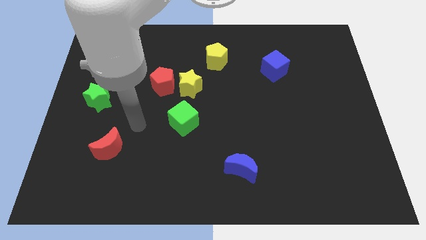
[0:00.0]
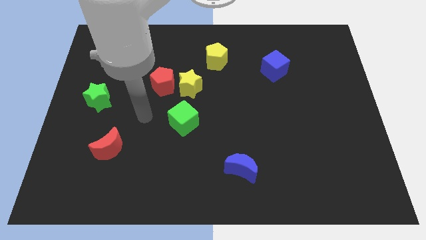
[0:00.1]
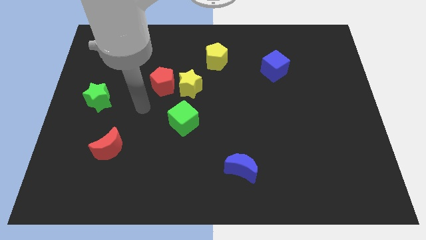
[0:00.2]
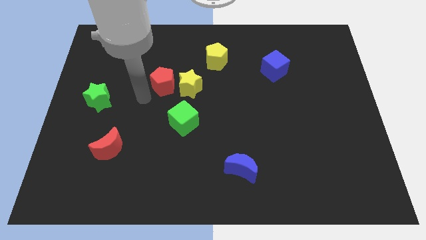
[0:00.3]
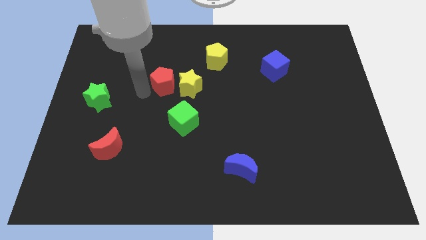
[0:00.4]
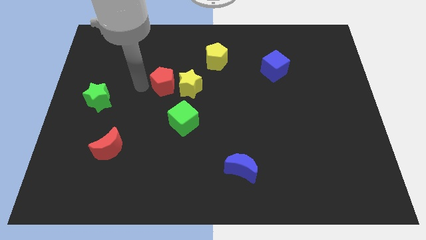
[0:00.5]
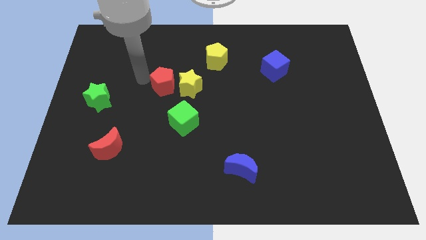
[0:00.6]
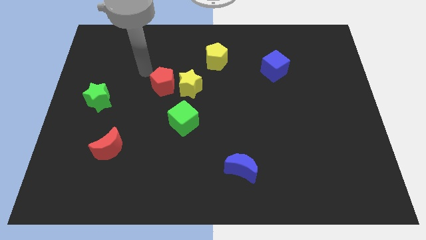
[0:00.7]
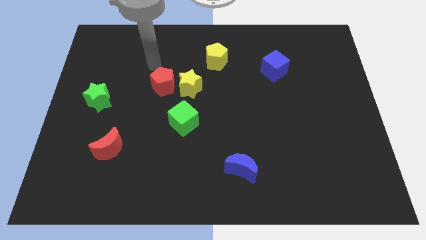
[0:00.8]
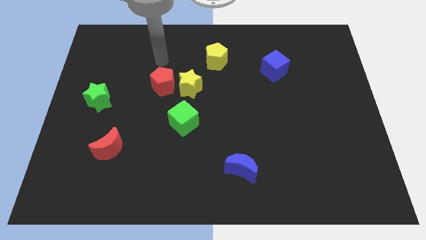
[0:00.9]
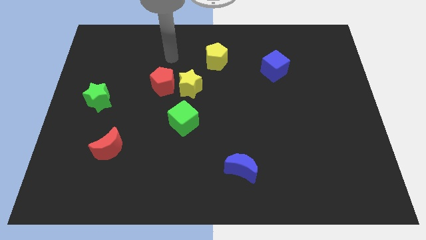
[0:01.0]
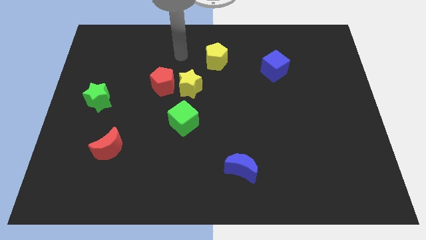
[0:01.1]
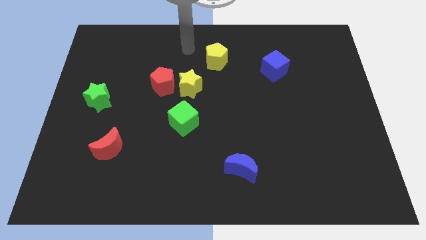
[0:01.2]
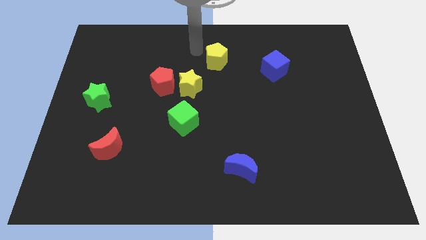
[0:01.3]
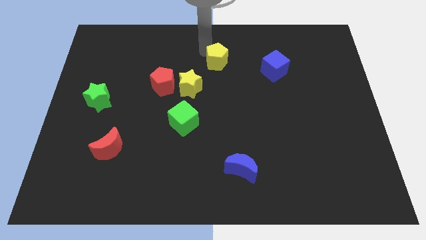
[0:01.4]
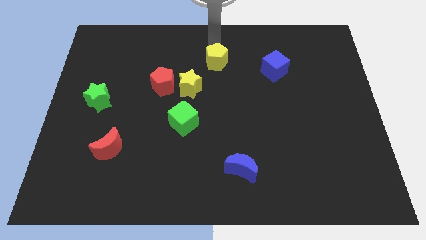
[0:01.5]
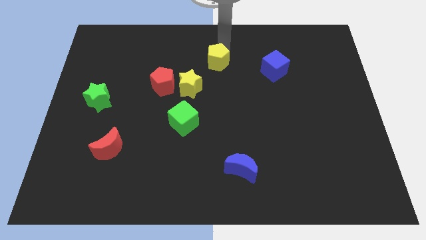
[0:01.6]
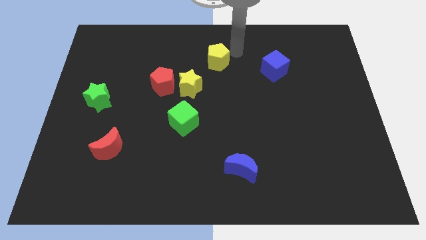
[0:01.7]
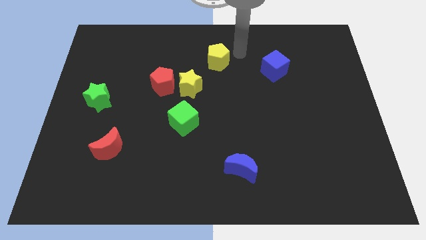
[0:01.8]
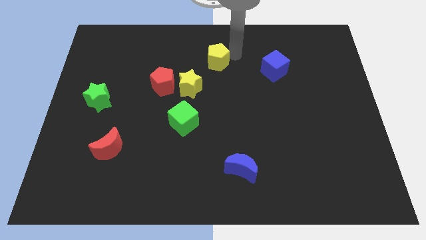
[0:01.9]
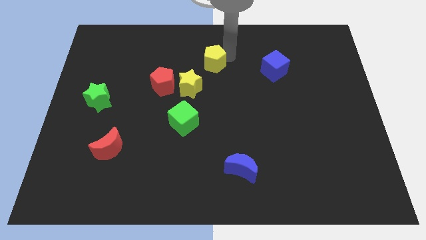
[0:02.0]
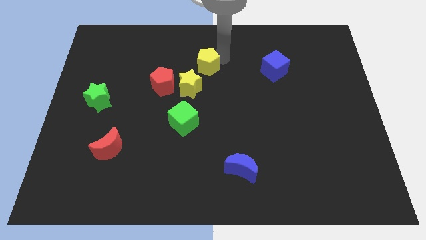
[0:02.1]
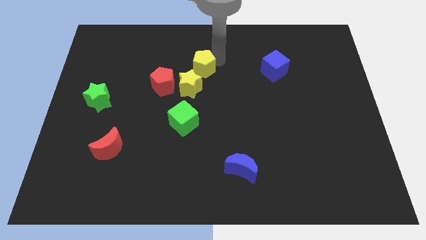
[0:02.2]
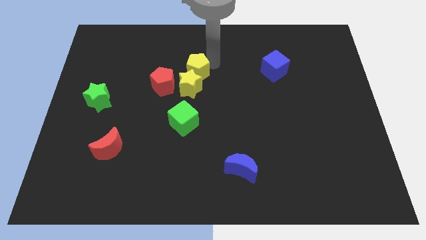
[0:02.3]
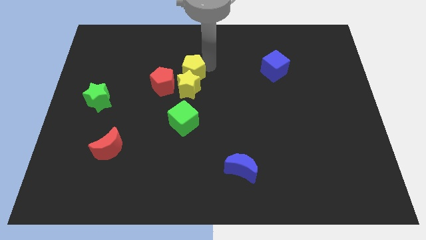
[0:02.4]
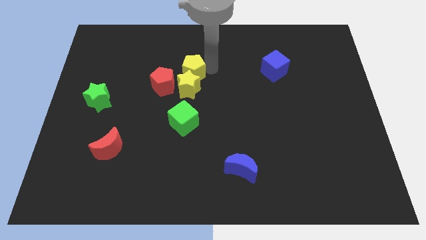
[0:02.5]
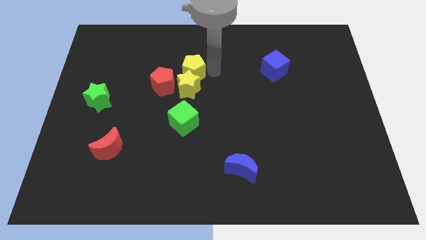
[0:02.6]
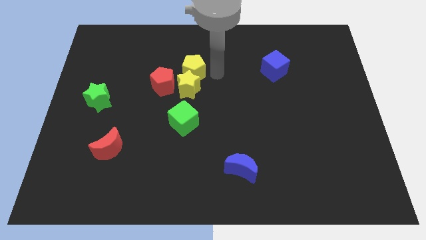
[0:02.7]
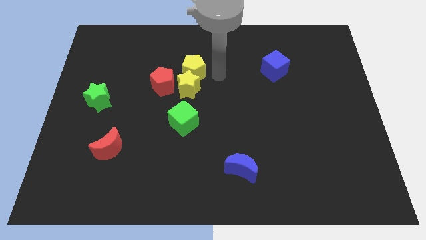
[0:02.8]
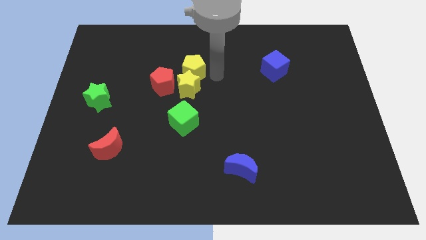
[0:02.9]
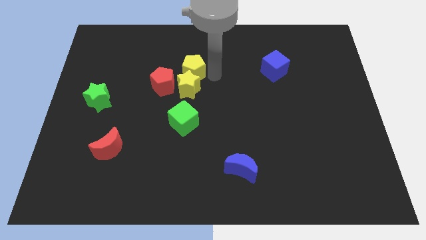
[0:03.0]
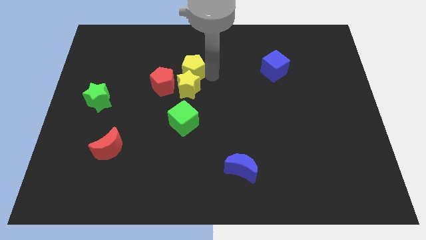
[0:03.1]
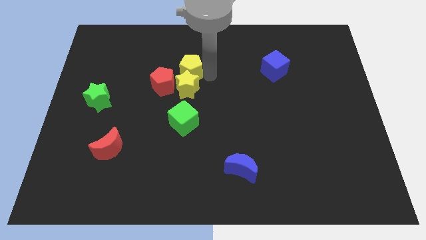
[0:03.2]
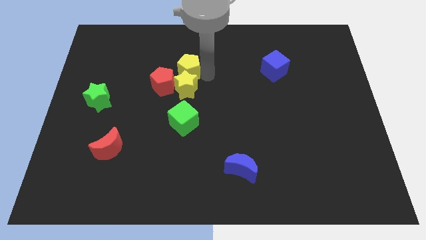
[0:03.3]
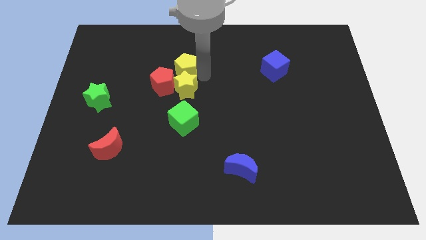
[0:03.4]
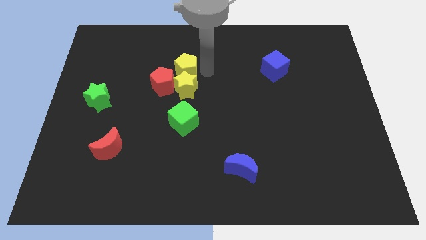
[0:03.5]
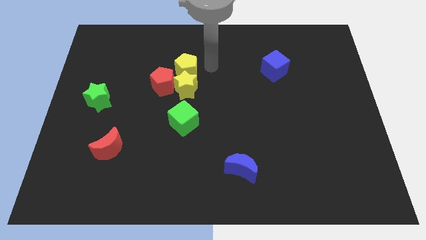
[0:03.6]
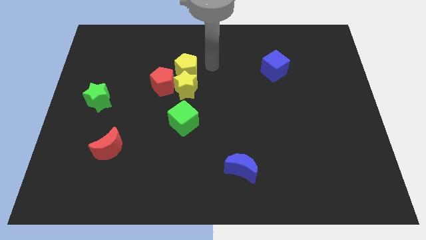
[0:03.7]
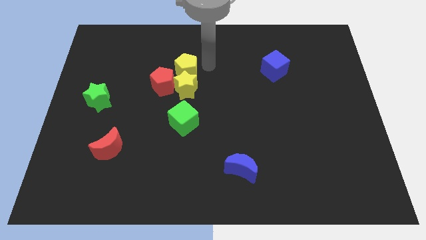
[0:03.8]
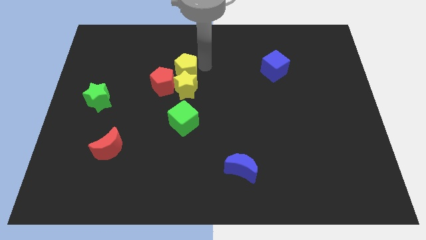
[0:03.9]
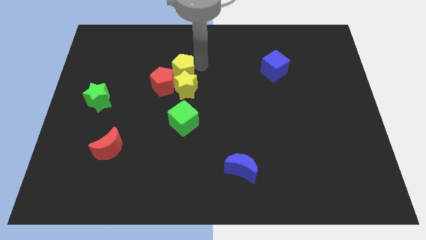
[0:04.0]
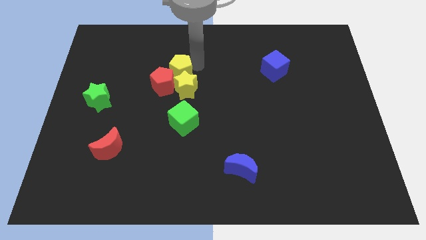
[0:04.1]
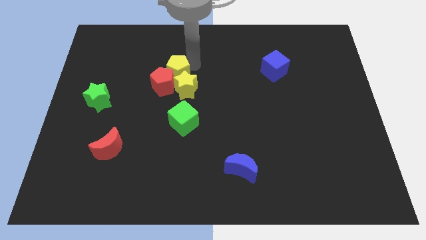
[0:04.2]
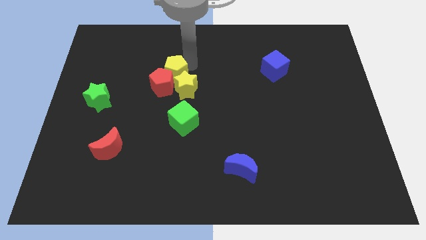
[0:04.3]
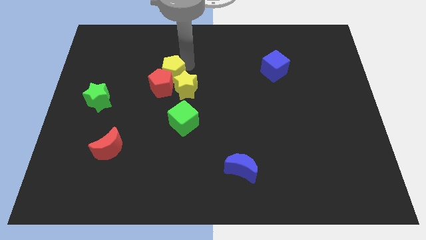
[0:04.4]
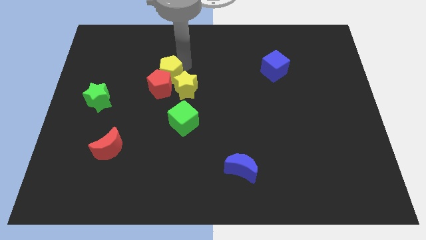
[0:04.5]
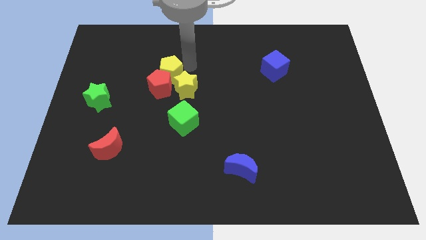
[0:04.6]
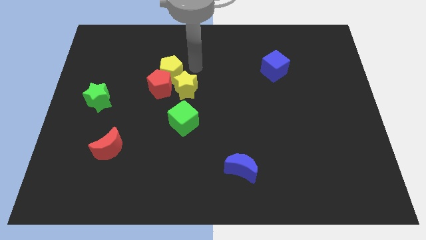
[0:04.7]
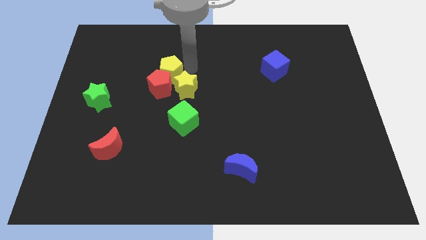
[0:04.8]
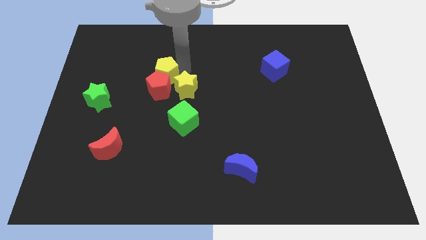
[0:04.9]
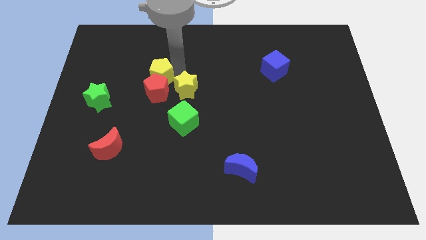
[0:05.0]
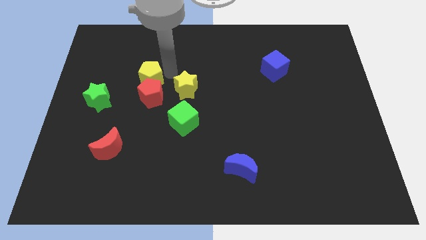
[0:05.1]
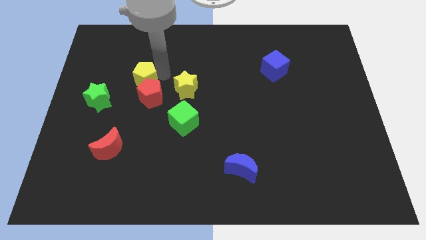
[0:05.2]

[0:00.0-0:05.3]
move the yellow pentagon diagonally up and to the right of the green star

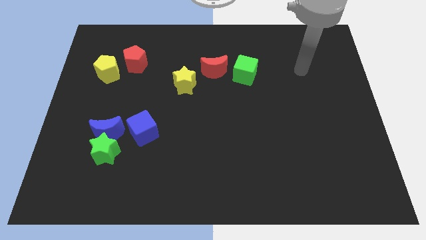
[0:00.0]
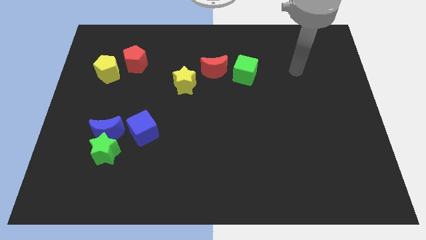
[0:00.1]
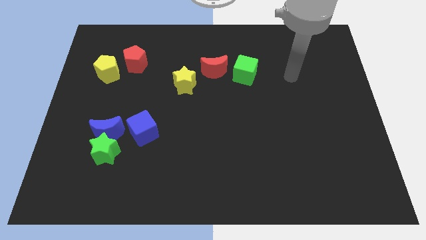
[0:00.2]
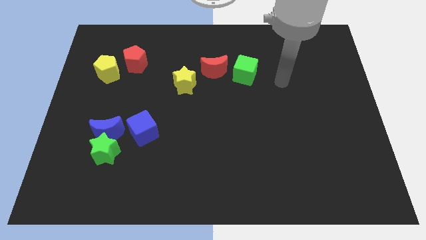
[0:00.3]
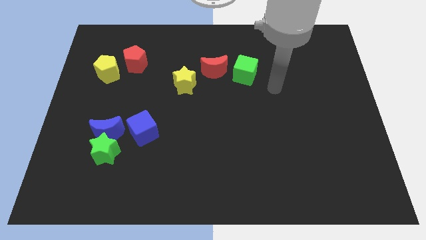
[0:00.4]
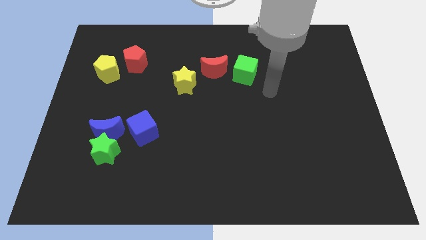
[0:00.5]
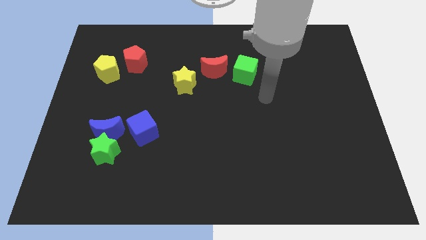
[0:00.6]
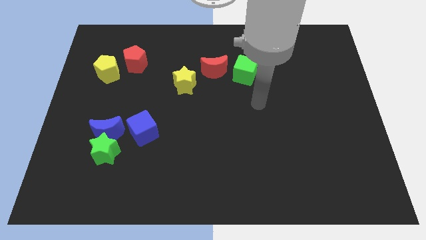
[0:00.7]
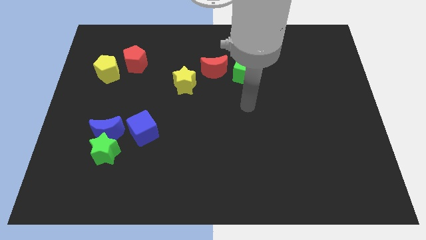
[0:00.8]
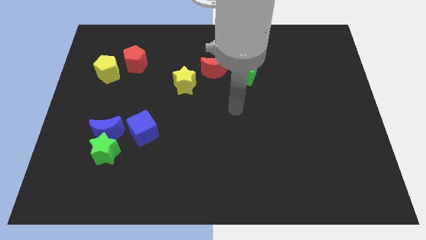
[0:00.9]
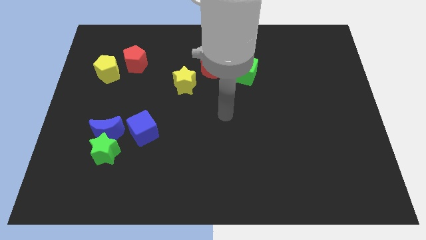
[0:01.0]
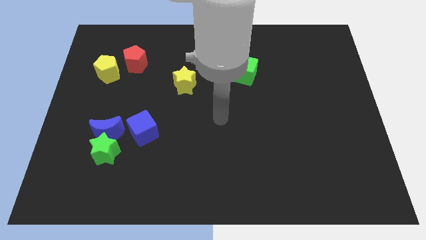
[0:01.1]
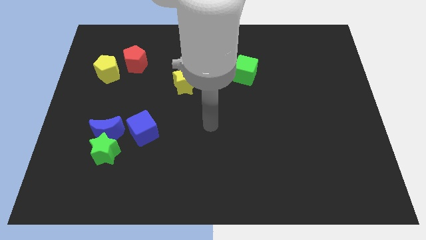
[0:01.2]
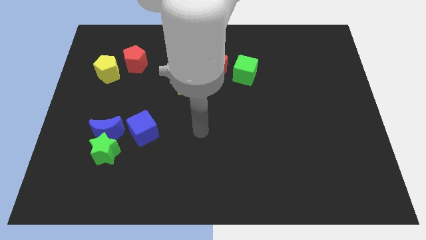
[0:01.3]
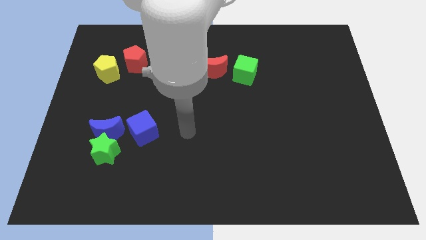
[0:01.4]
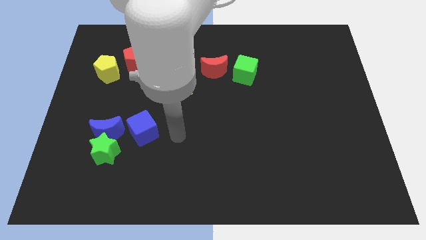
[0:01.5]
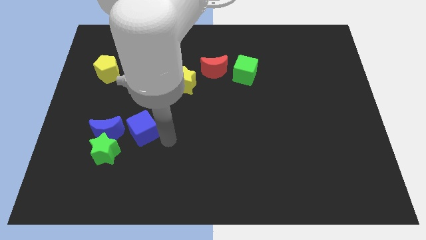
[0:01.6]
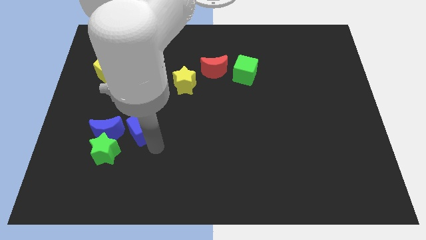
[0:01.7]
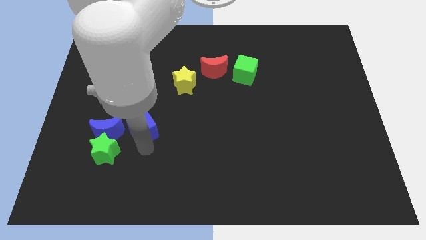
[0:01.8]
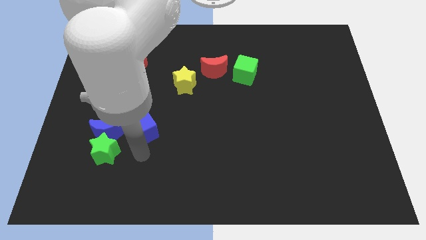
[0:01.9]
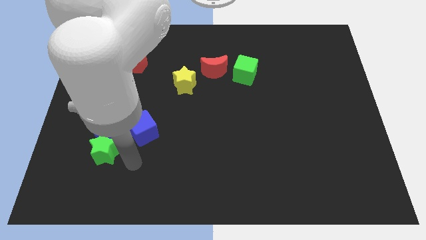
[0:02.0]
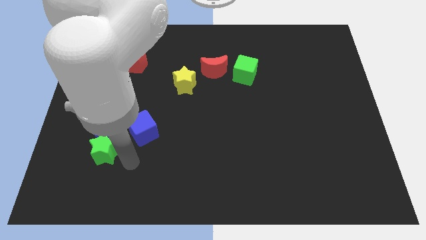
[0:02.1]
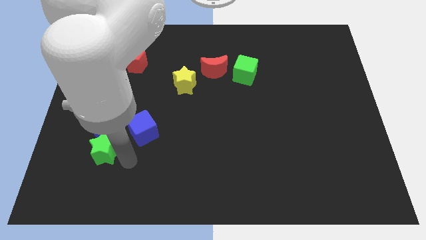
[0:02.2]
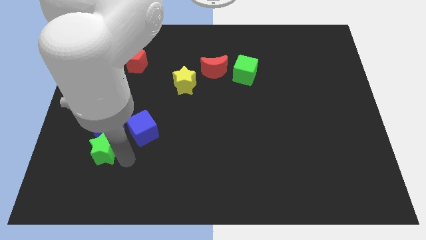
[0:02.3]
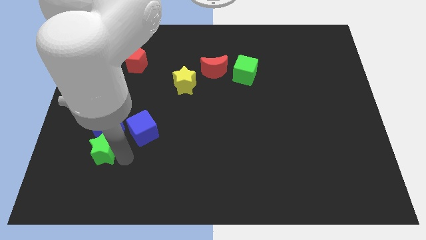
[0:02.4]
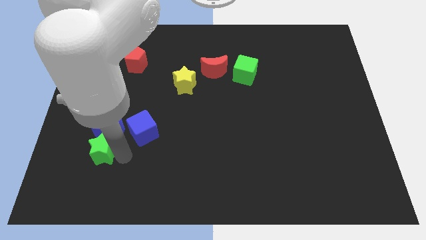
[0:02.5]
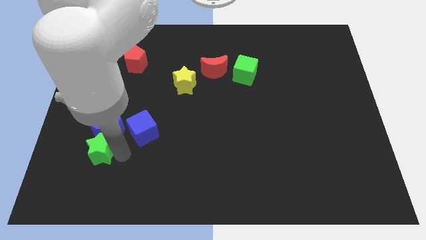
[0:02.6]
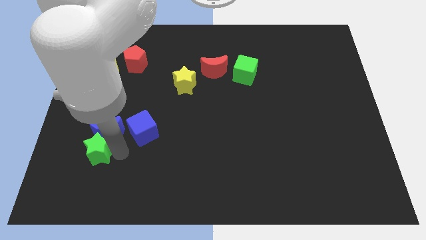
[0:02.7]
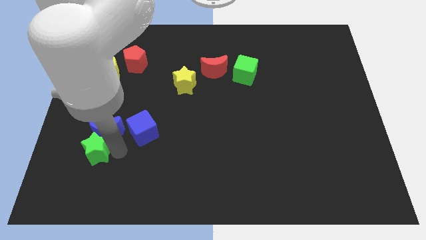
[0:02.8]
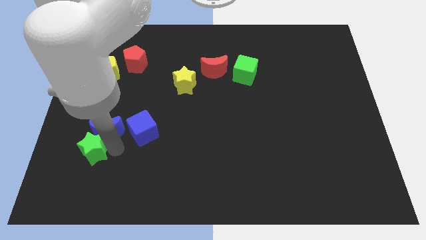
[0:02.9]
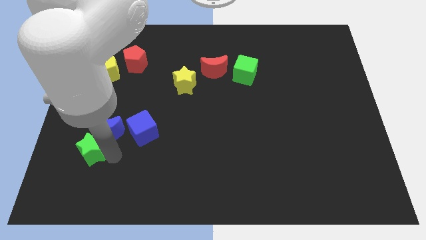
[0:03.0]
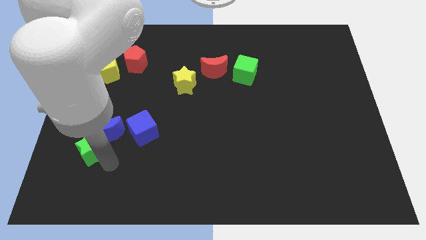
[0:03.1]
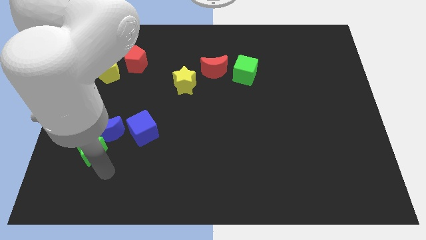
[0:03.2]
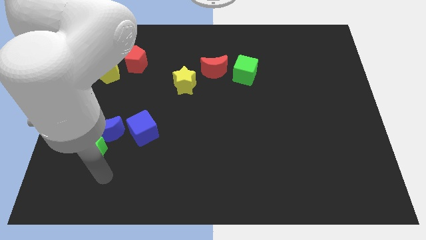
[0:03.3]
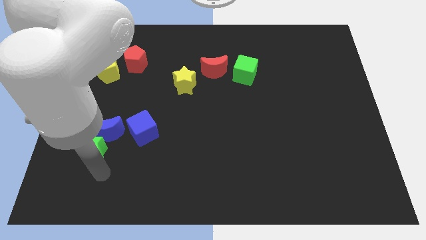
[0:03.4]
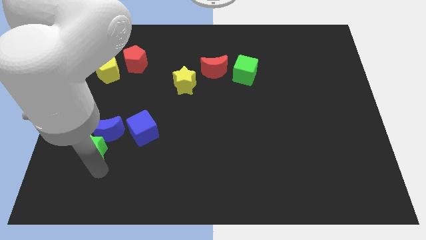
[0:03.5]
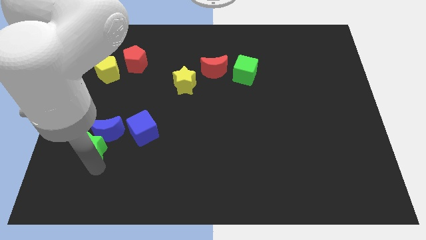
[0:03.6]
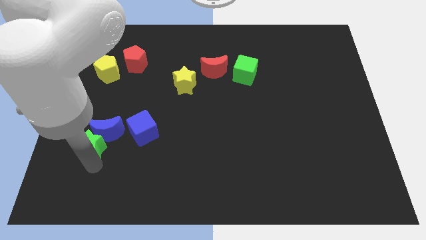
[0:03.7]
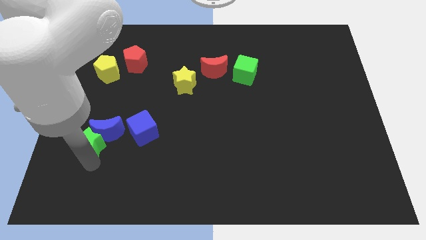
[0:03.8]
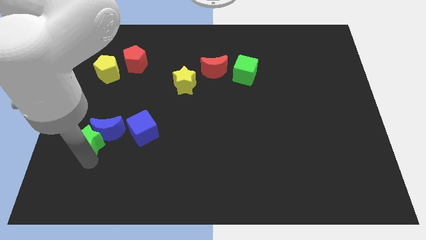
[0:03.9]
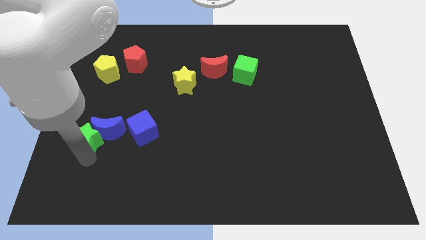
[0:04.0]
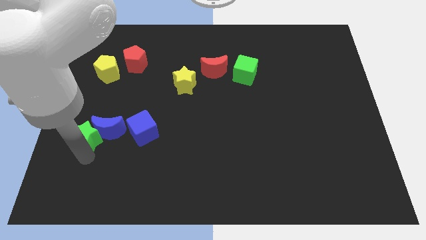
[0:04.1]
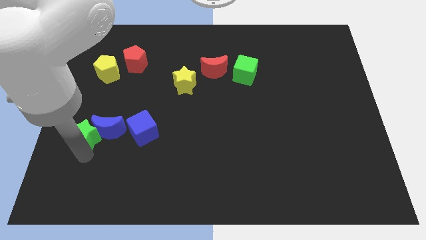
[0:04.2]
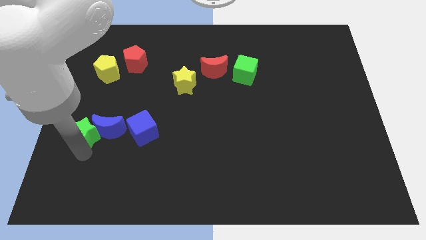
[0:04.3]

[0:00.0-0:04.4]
push the green star diagonally up and to the left of the blue moon
